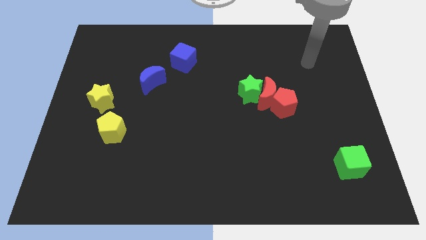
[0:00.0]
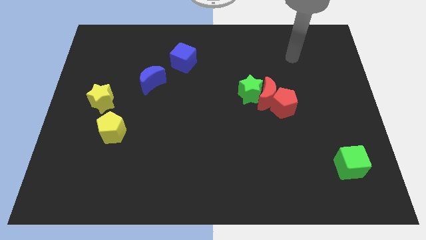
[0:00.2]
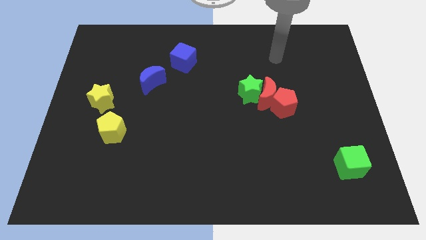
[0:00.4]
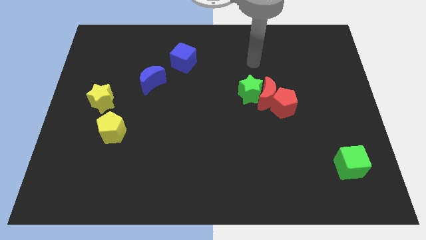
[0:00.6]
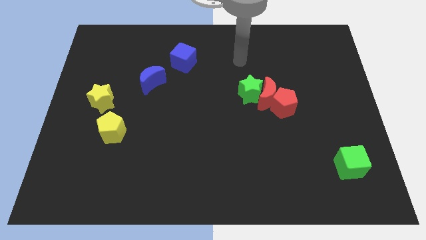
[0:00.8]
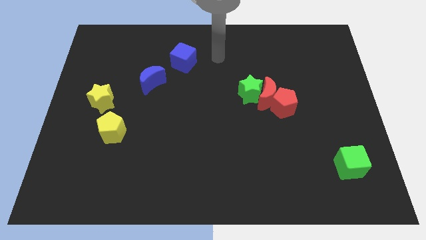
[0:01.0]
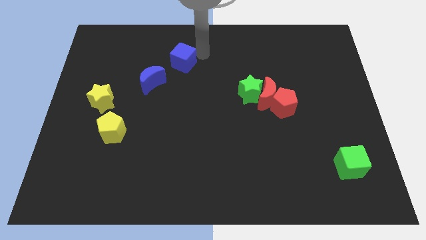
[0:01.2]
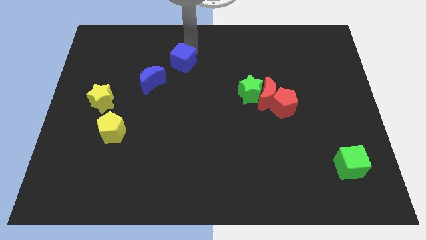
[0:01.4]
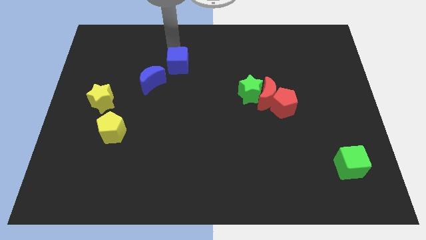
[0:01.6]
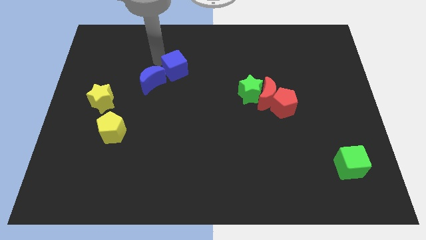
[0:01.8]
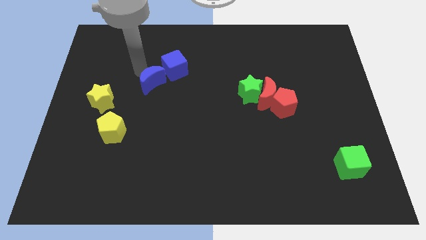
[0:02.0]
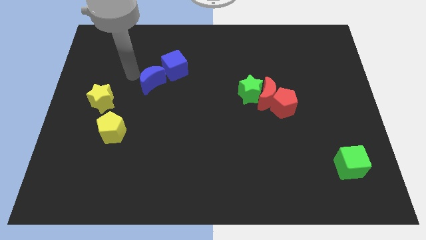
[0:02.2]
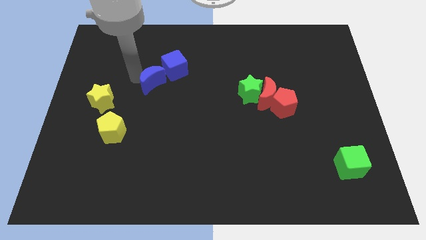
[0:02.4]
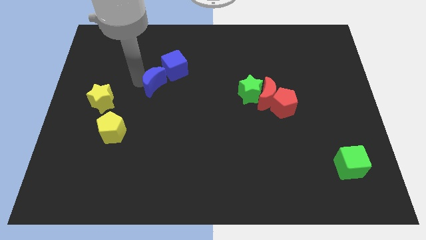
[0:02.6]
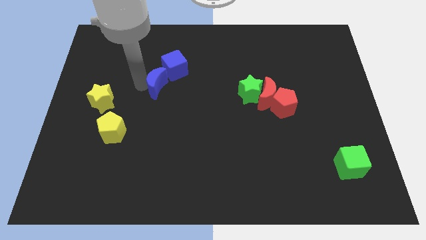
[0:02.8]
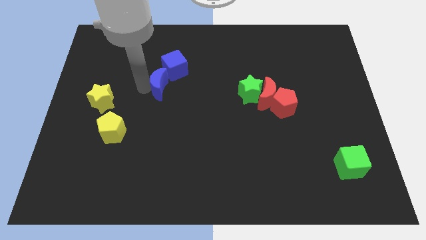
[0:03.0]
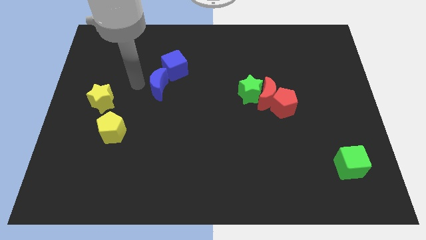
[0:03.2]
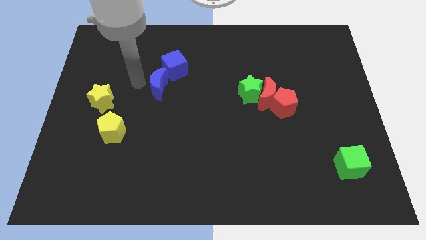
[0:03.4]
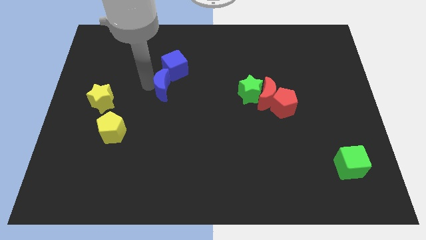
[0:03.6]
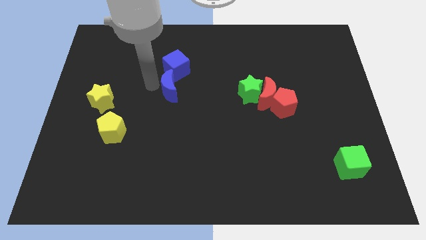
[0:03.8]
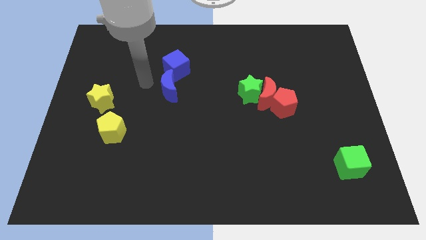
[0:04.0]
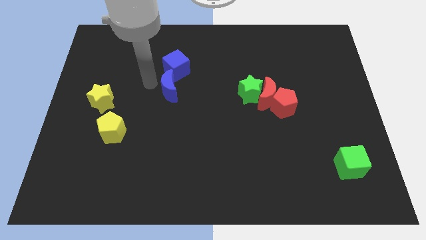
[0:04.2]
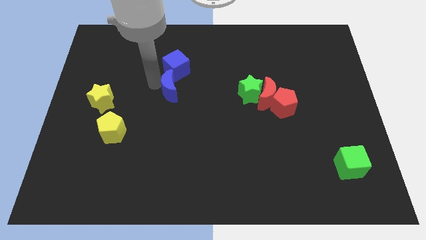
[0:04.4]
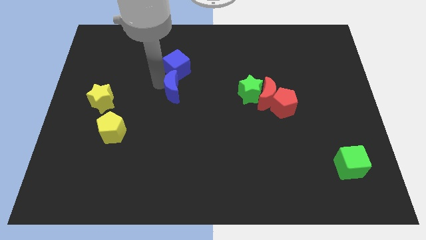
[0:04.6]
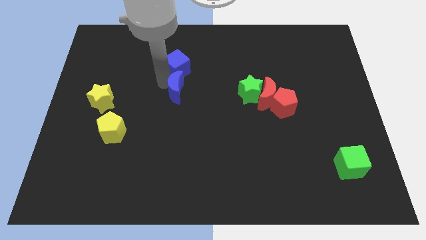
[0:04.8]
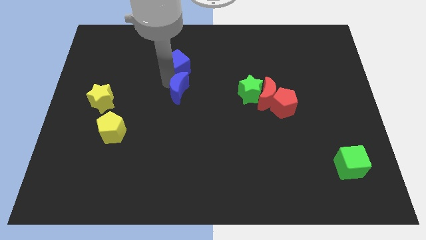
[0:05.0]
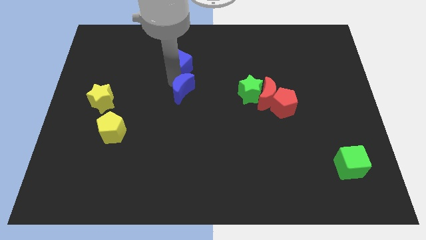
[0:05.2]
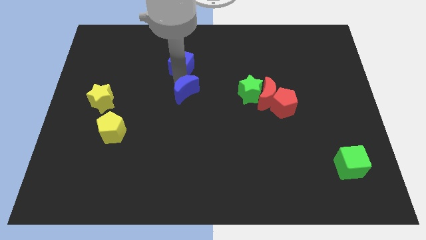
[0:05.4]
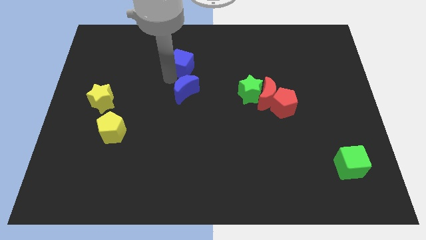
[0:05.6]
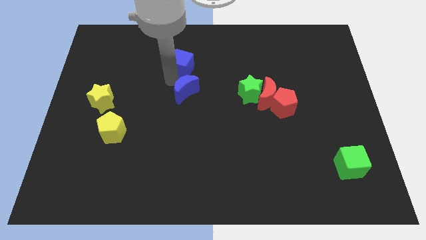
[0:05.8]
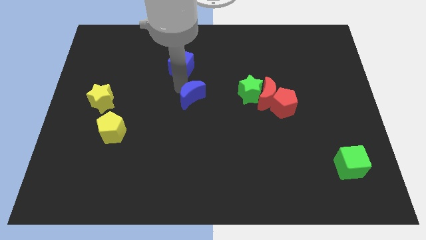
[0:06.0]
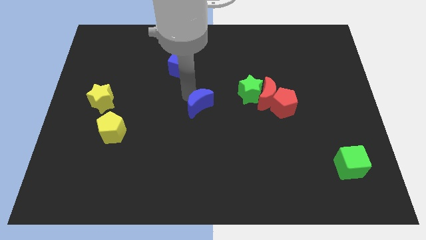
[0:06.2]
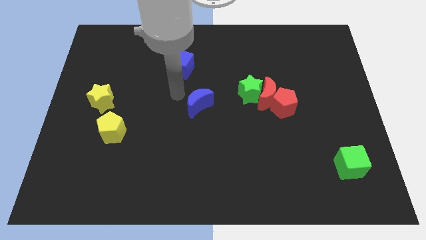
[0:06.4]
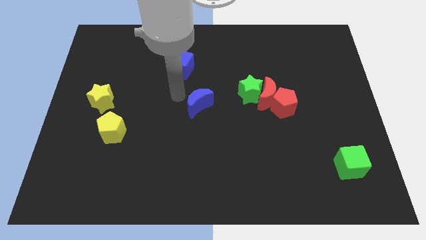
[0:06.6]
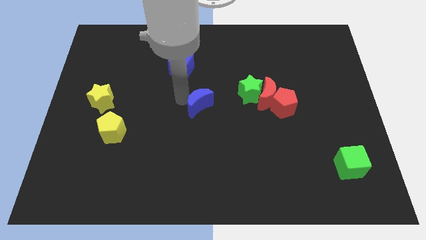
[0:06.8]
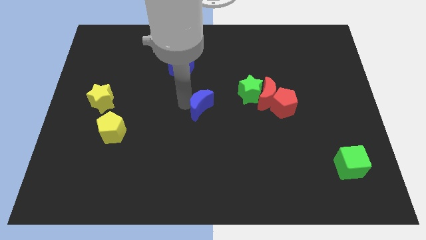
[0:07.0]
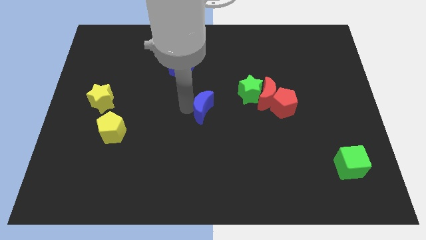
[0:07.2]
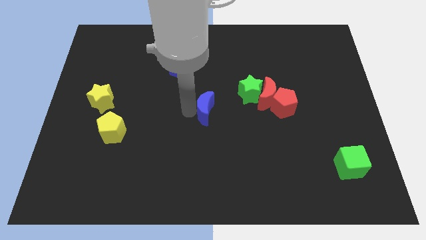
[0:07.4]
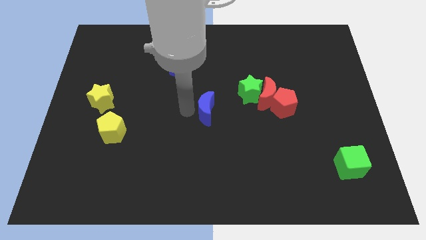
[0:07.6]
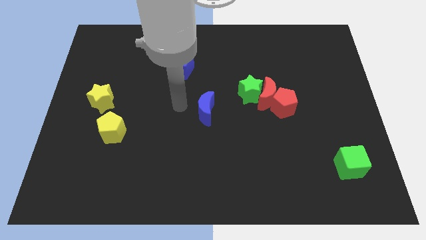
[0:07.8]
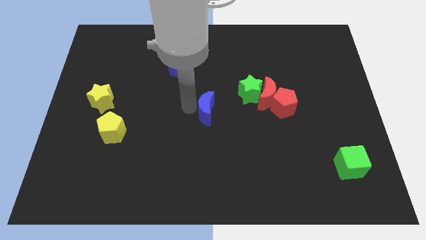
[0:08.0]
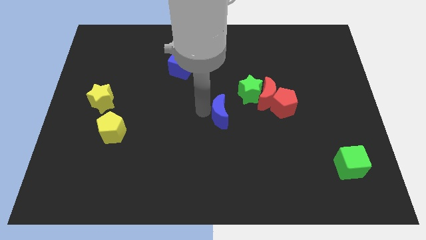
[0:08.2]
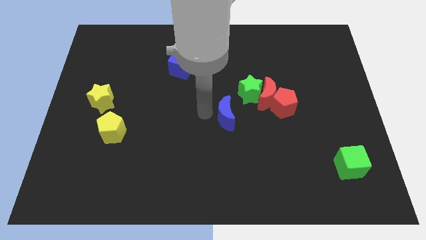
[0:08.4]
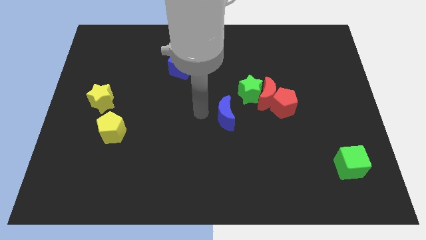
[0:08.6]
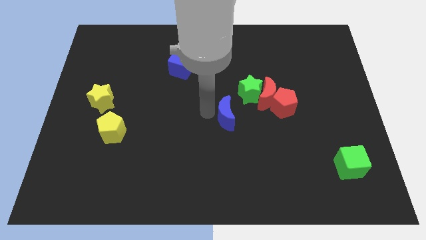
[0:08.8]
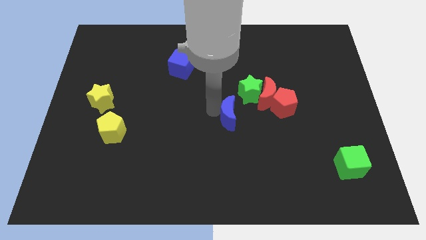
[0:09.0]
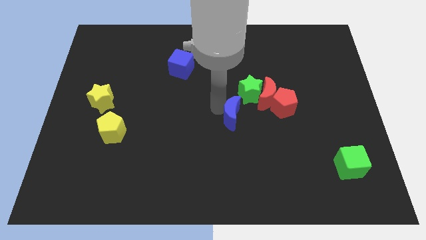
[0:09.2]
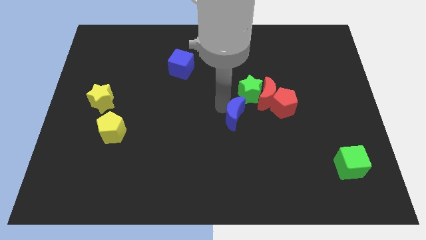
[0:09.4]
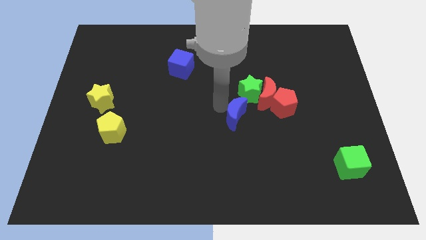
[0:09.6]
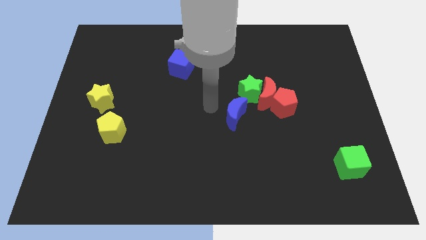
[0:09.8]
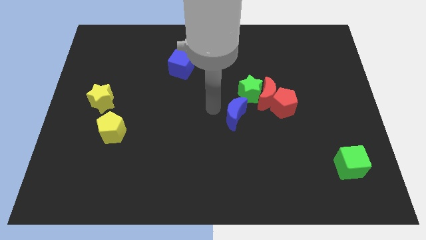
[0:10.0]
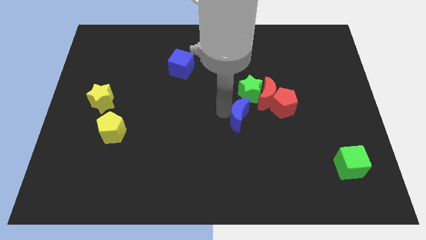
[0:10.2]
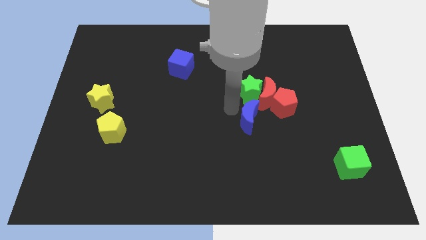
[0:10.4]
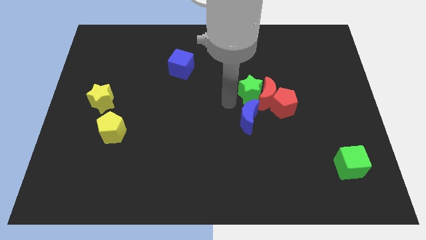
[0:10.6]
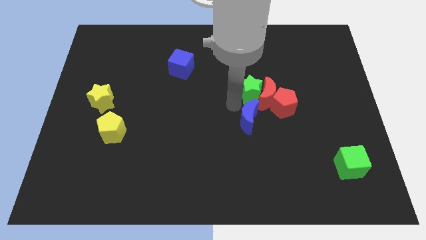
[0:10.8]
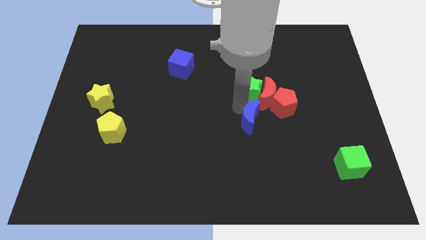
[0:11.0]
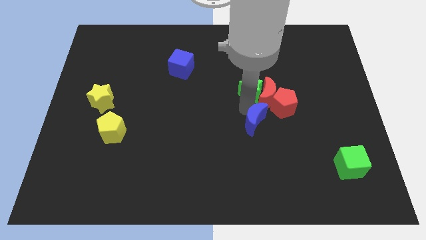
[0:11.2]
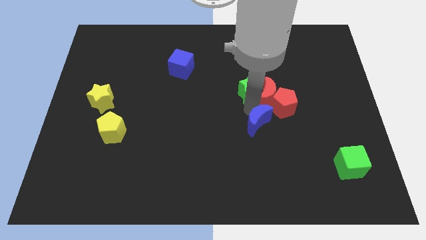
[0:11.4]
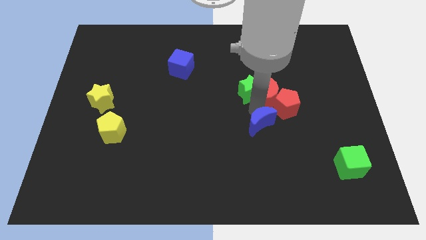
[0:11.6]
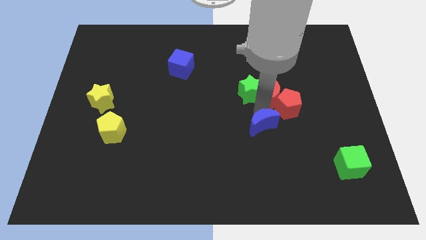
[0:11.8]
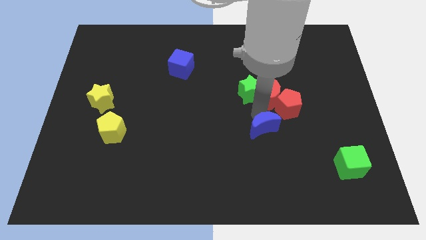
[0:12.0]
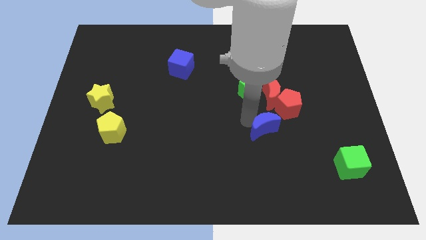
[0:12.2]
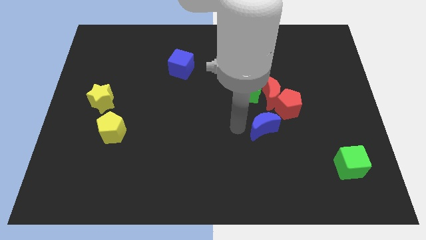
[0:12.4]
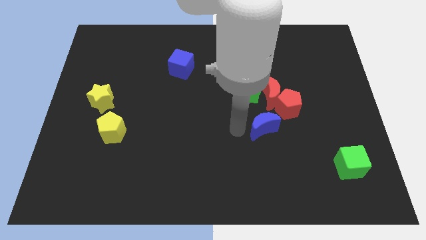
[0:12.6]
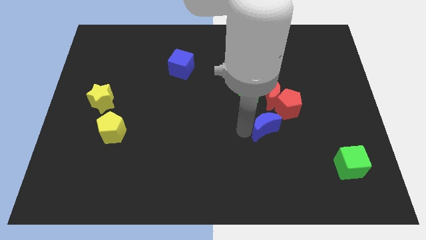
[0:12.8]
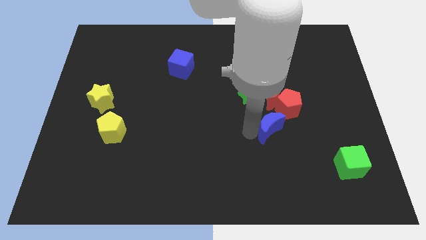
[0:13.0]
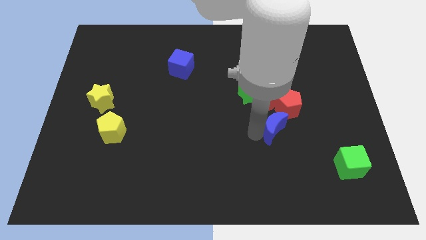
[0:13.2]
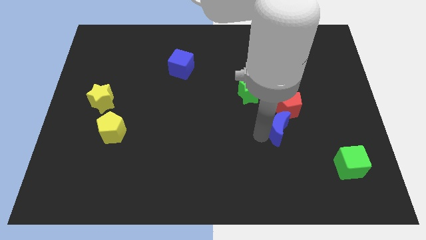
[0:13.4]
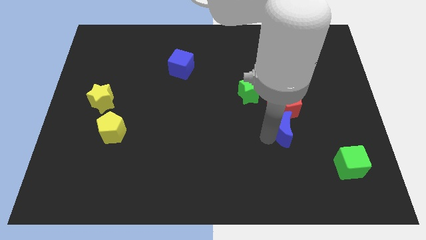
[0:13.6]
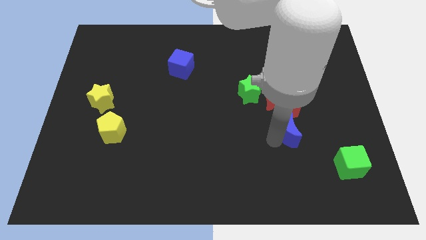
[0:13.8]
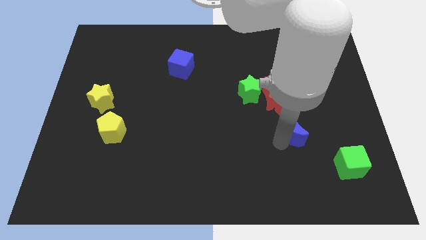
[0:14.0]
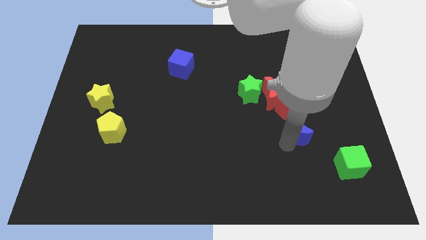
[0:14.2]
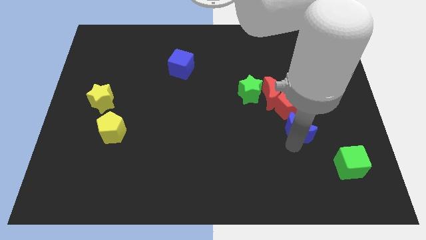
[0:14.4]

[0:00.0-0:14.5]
put the blue moon diagonally down and to the right of the red moon
